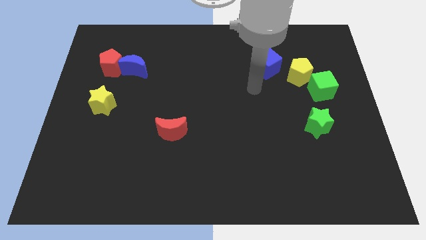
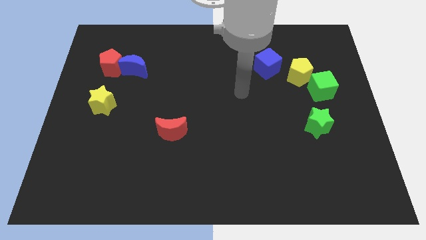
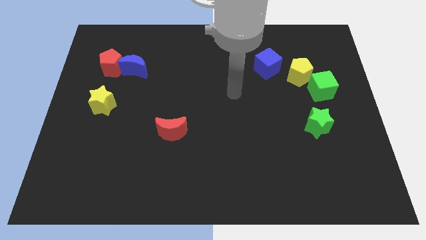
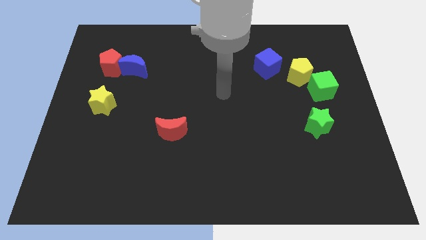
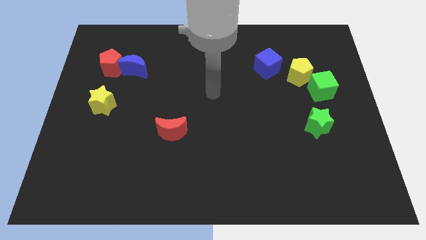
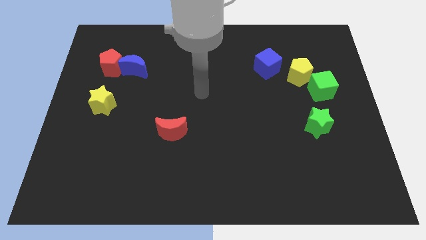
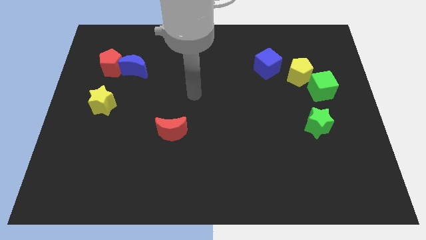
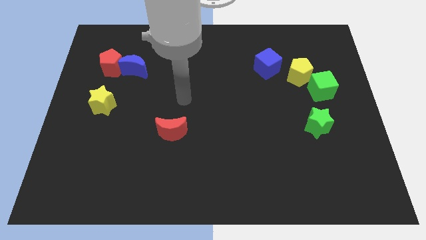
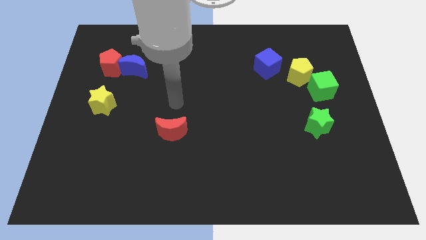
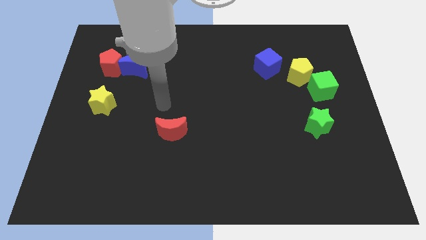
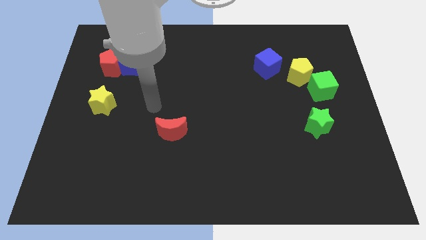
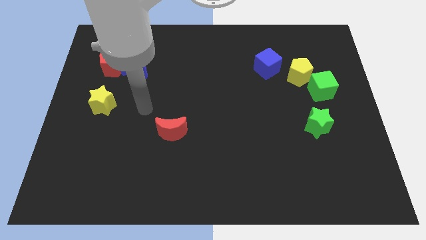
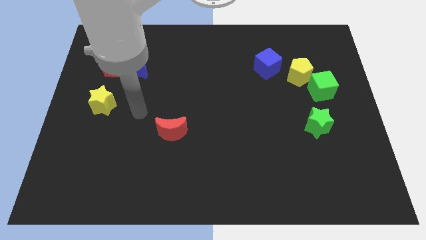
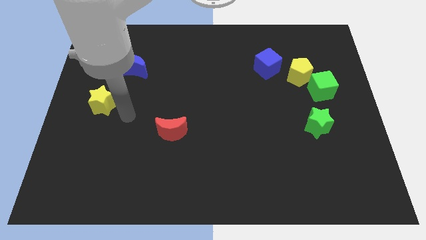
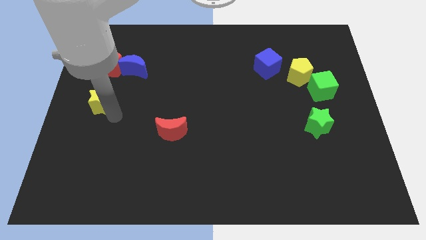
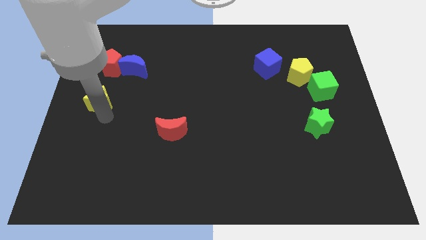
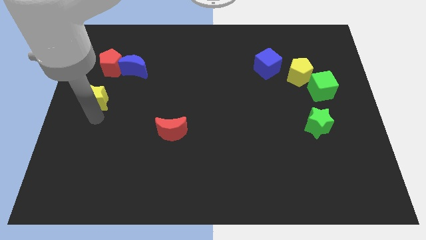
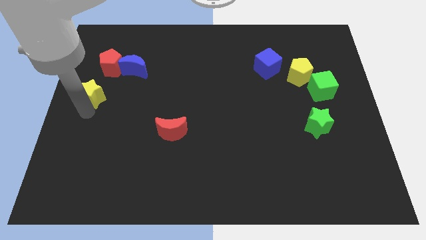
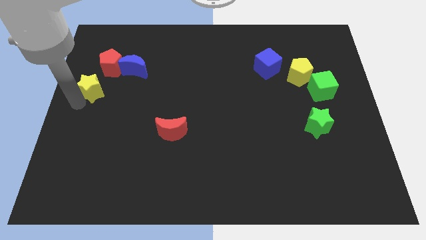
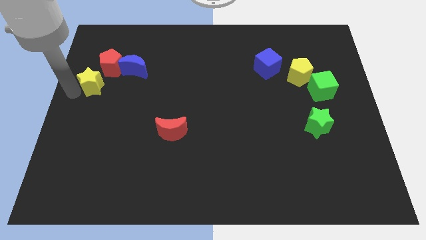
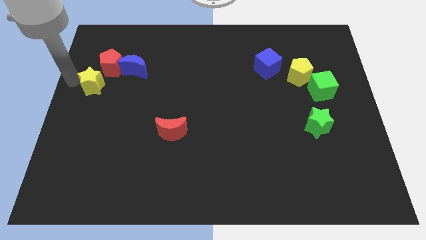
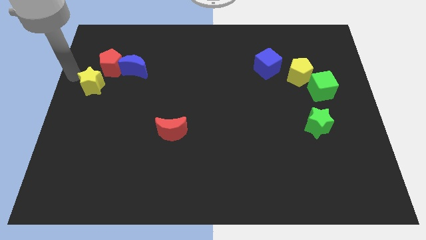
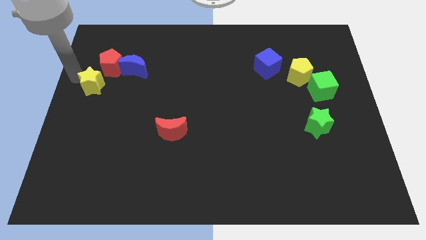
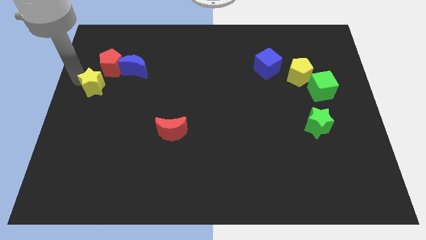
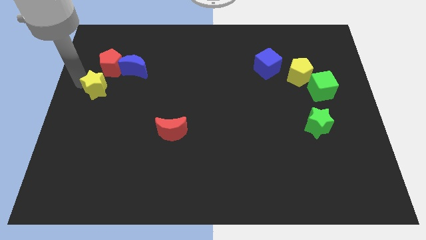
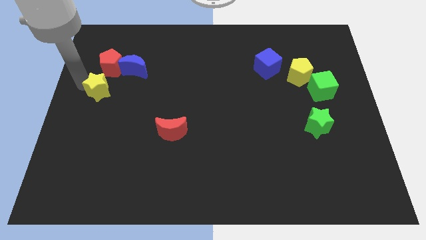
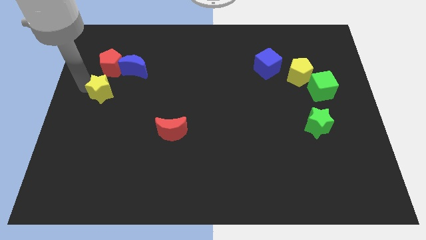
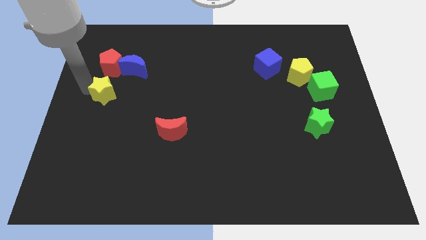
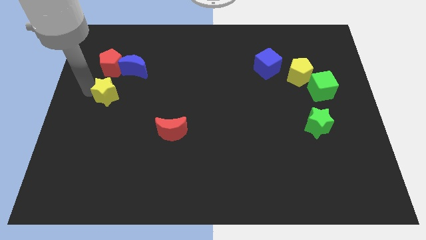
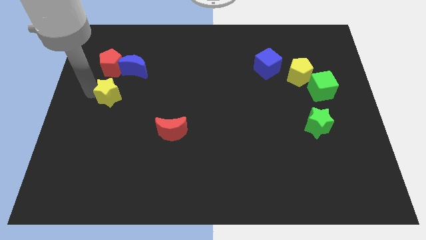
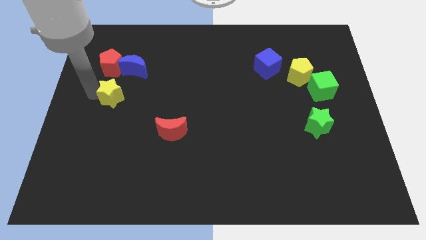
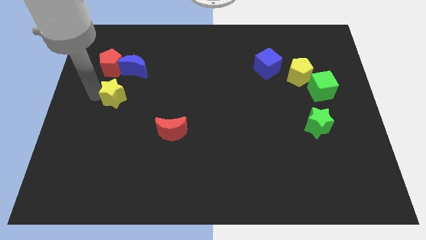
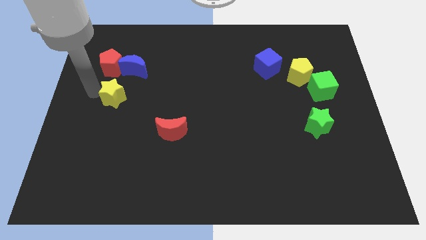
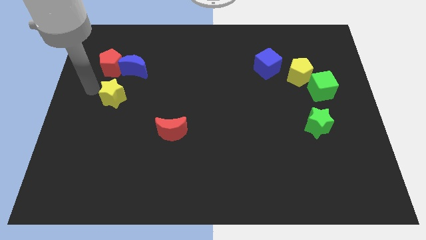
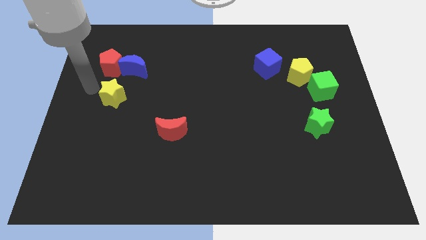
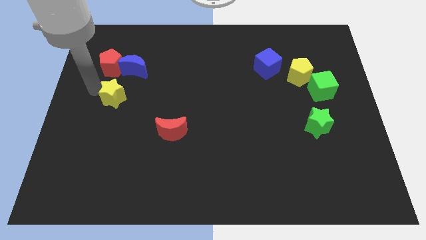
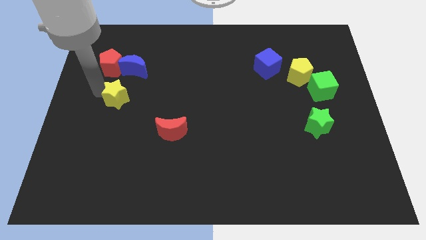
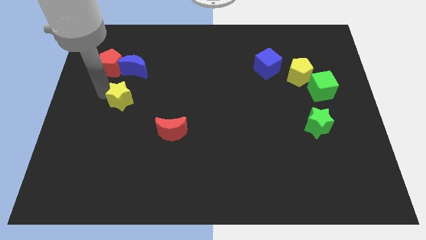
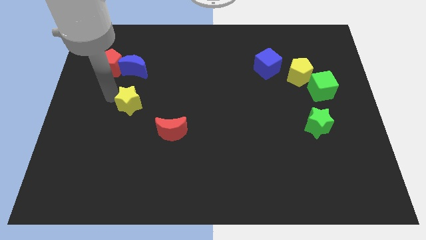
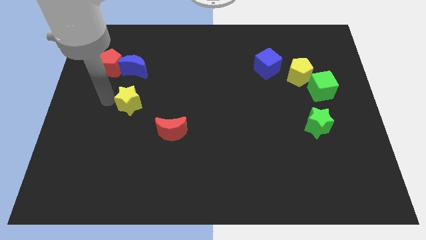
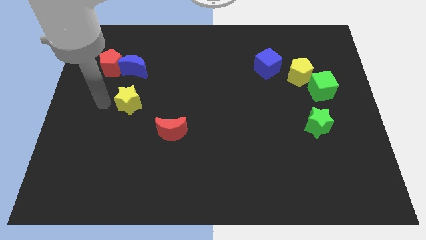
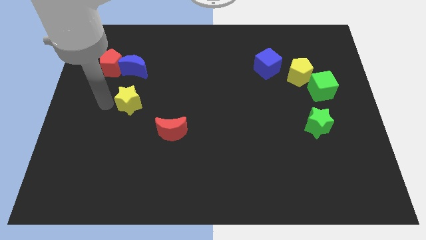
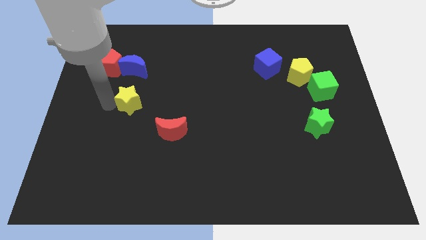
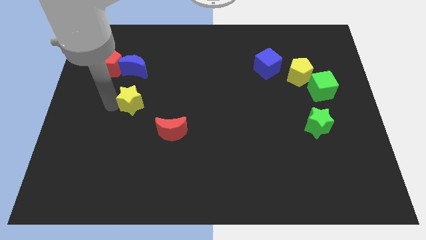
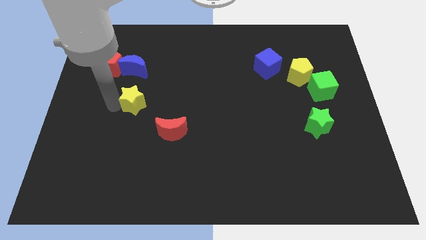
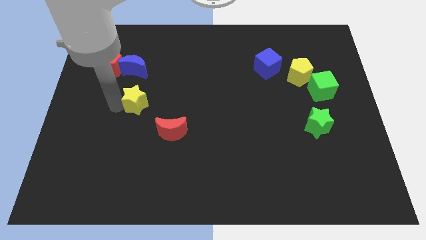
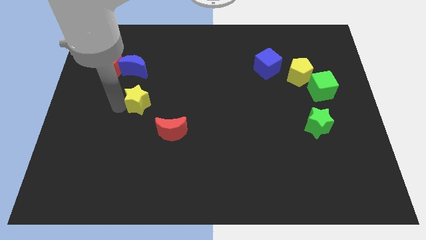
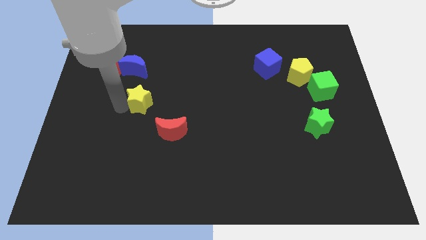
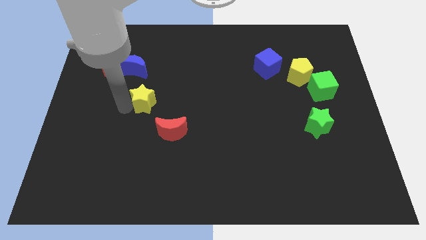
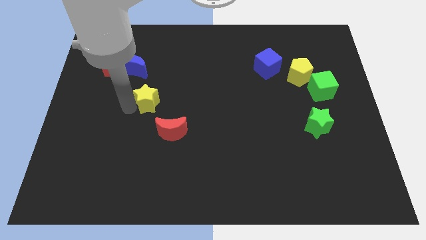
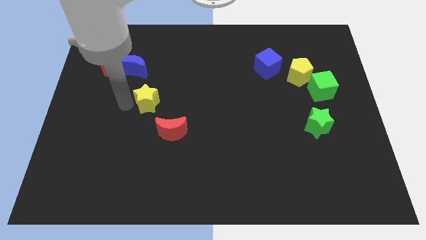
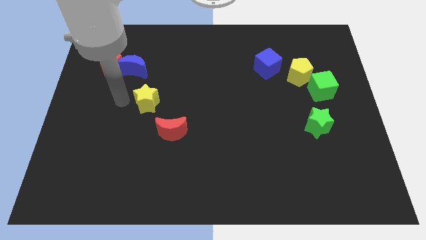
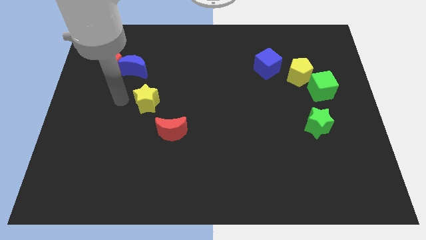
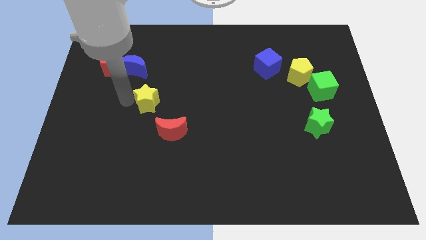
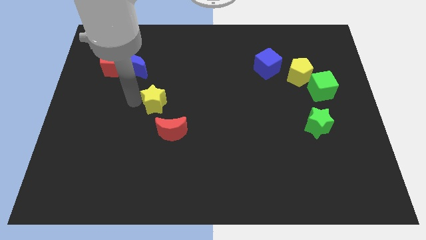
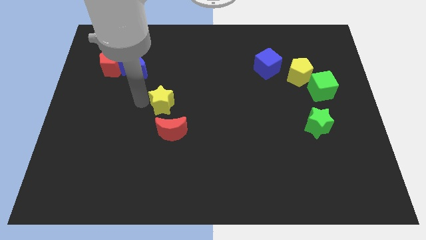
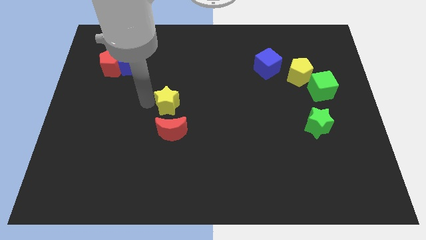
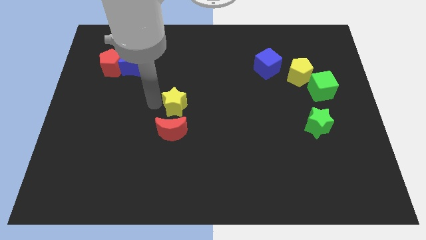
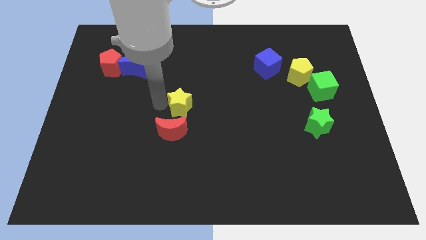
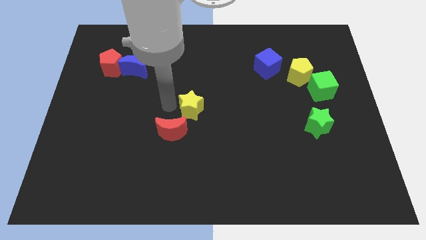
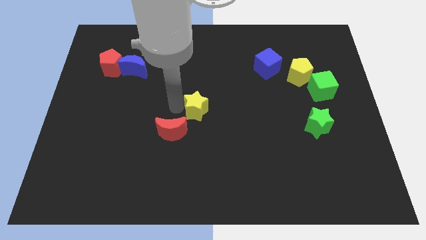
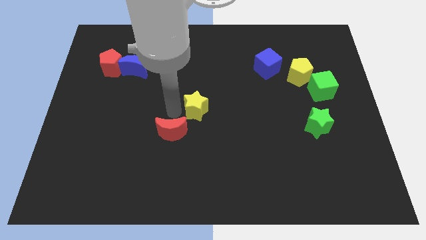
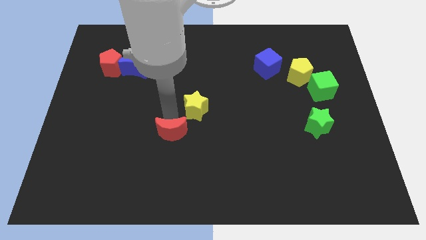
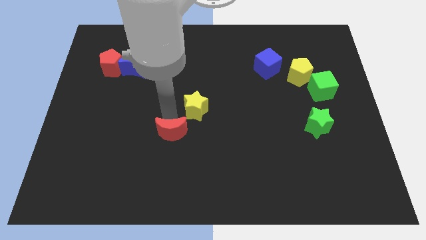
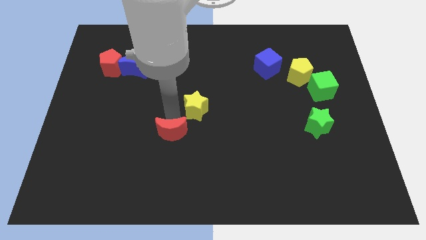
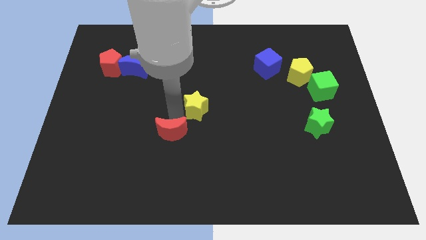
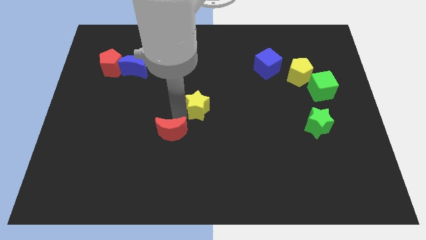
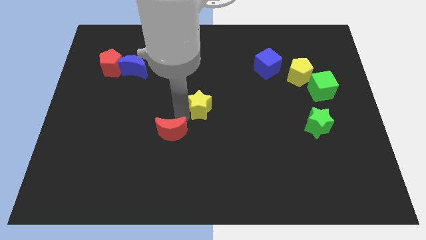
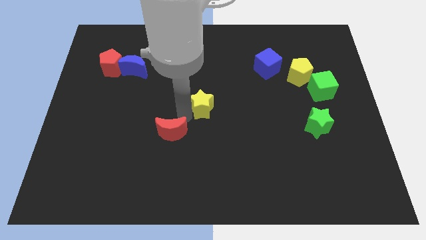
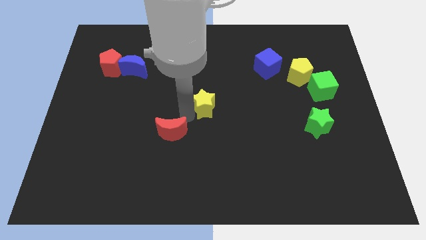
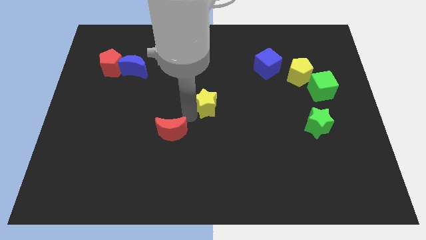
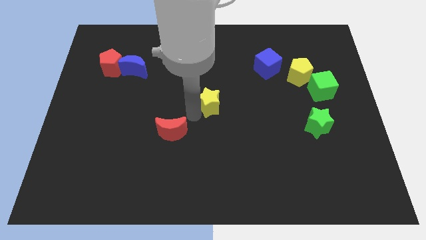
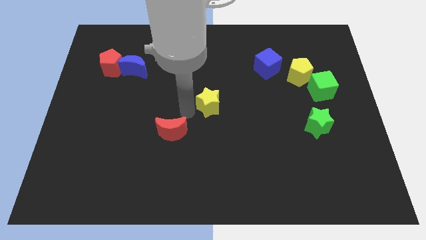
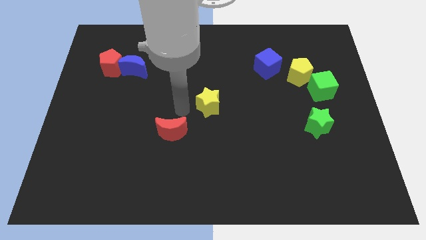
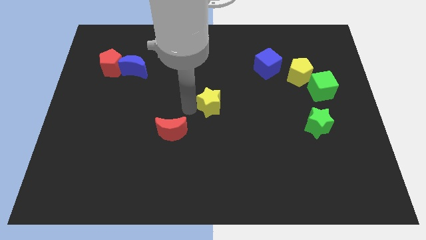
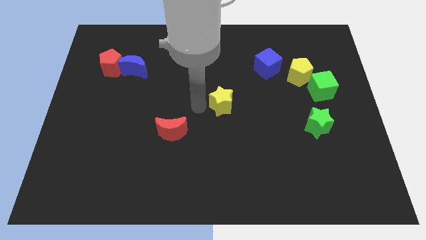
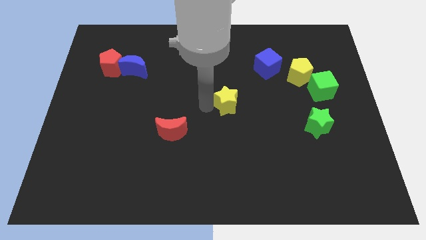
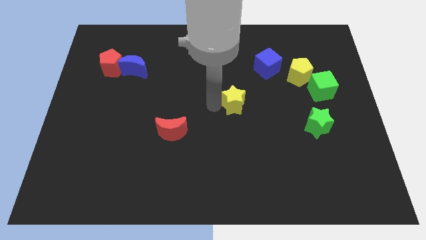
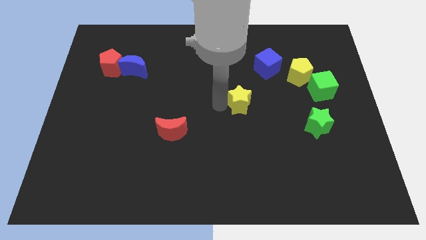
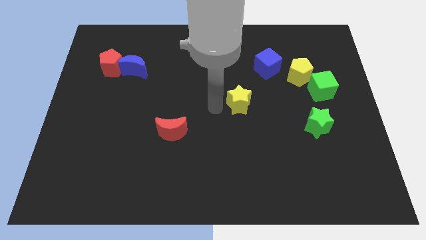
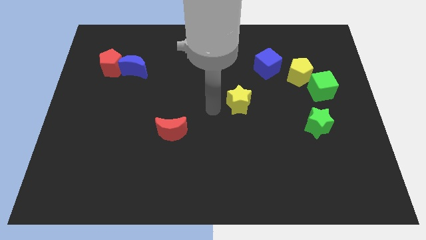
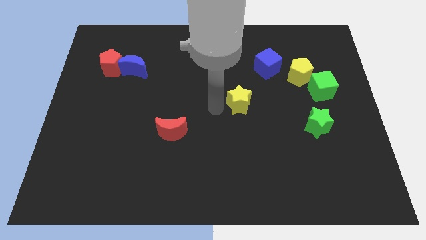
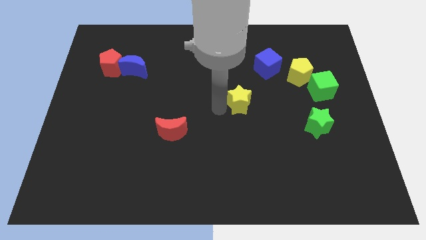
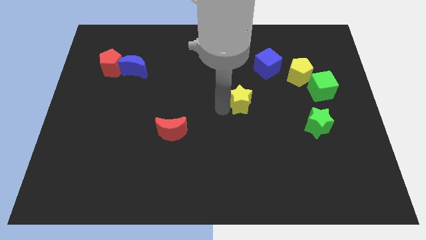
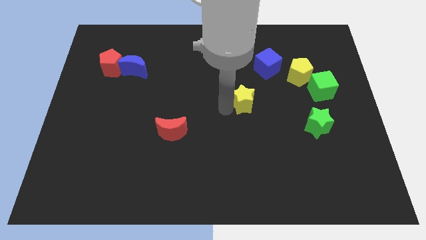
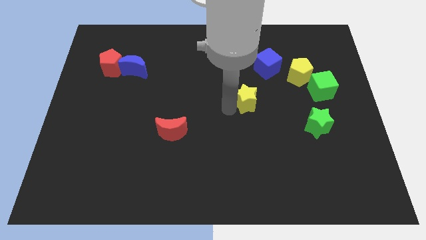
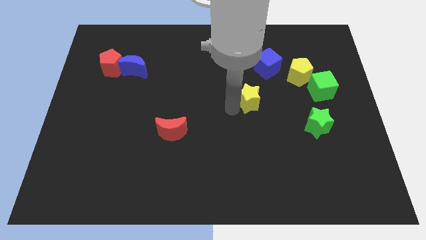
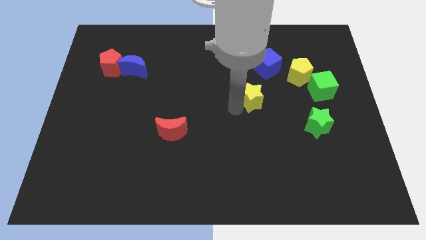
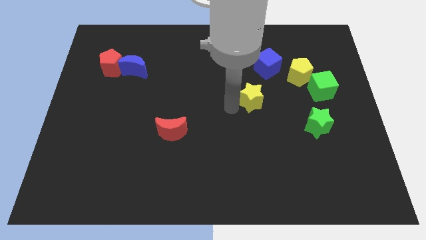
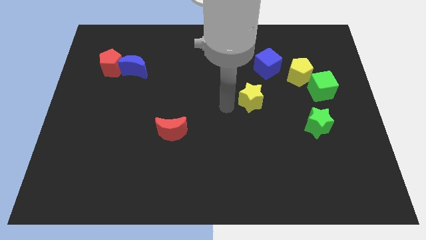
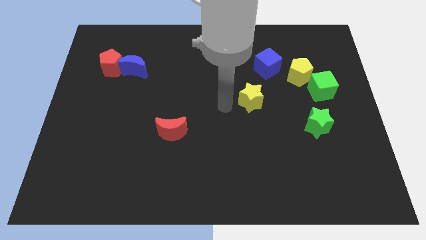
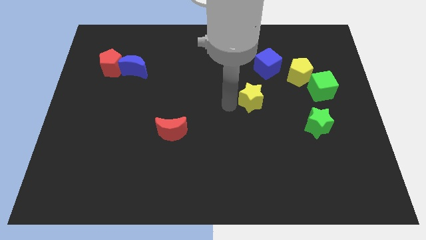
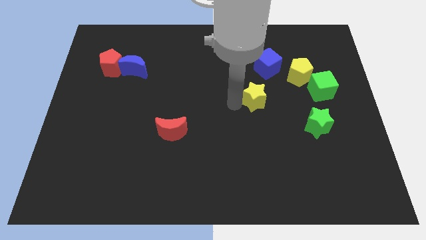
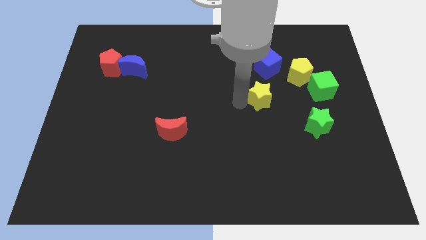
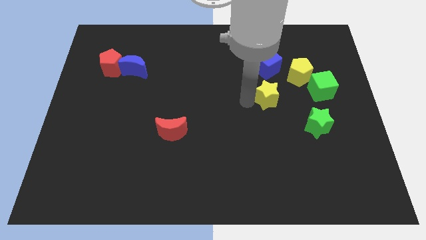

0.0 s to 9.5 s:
slide the yellow star diagonally down and to the left of the yellow pentagon
